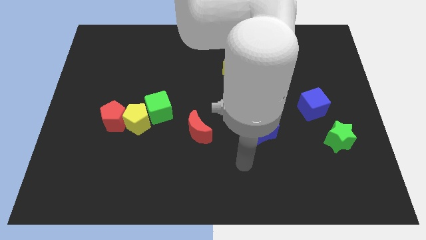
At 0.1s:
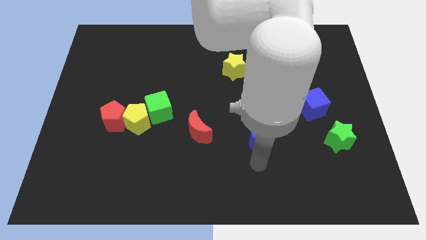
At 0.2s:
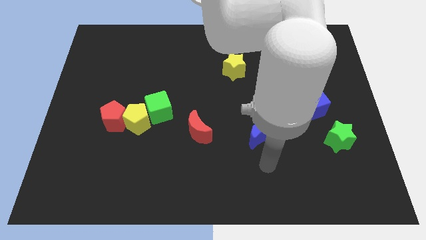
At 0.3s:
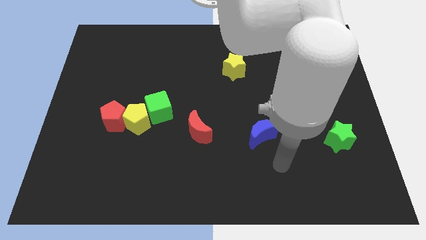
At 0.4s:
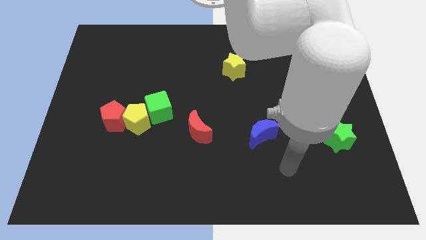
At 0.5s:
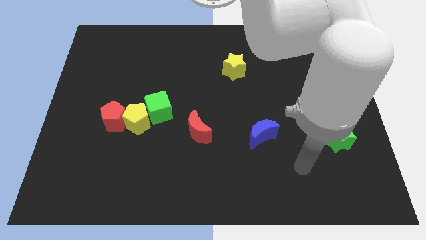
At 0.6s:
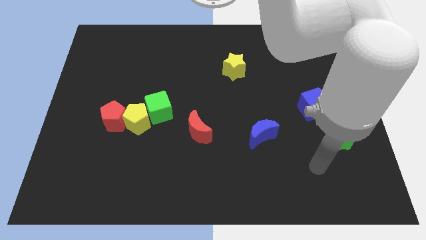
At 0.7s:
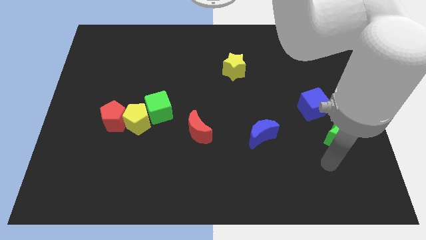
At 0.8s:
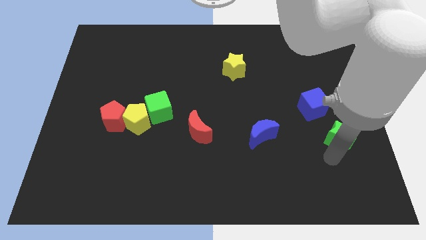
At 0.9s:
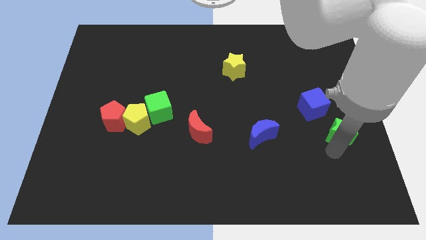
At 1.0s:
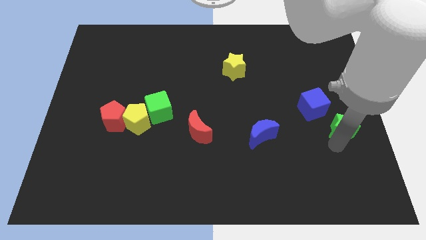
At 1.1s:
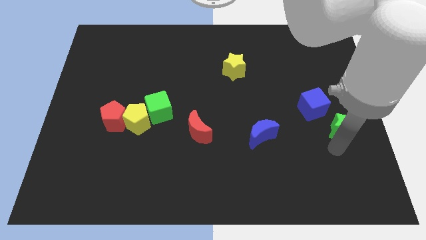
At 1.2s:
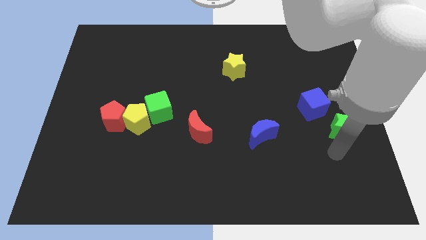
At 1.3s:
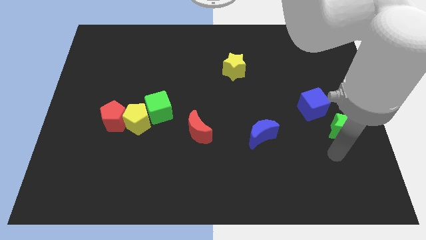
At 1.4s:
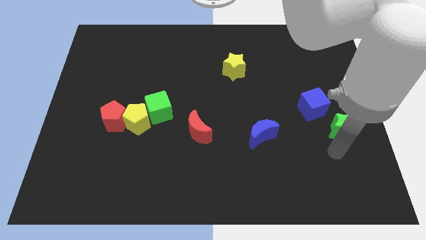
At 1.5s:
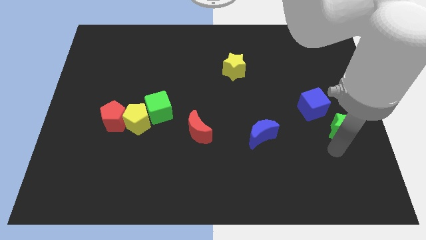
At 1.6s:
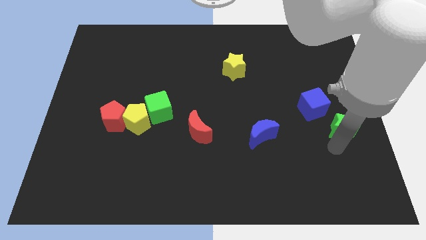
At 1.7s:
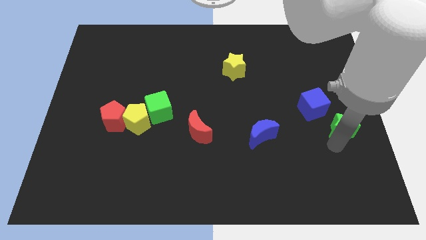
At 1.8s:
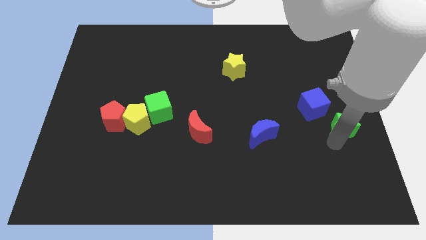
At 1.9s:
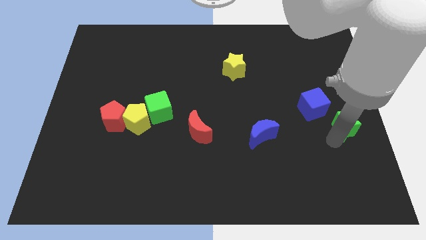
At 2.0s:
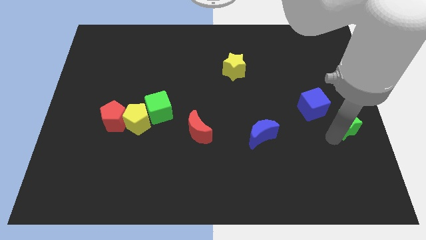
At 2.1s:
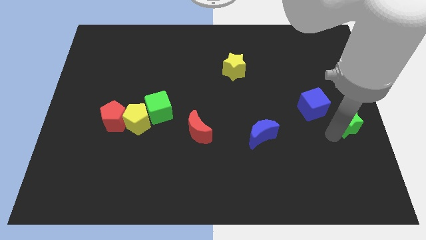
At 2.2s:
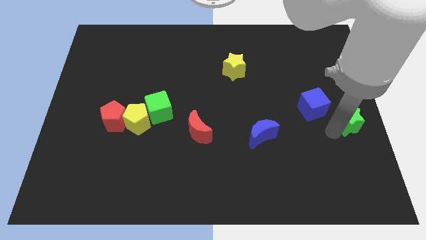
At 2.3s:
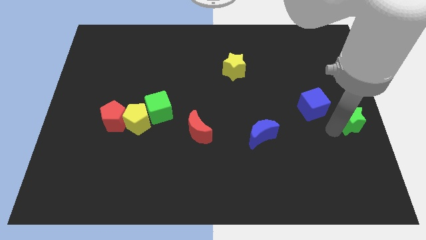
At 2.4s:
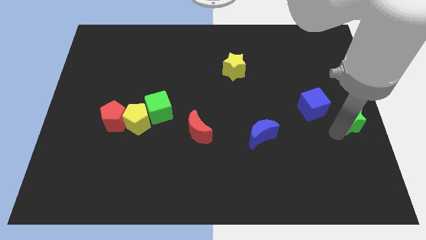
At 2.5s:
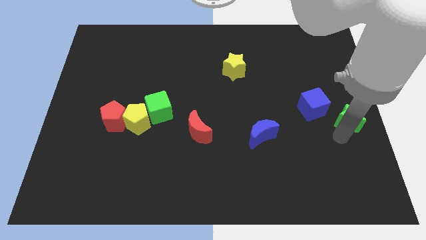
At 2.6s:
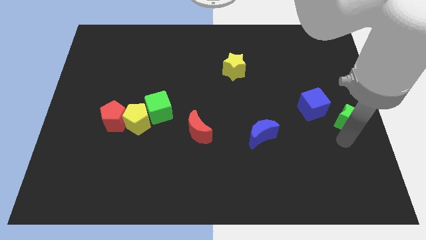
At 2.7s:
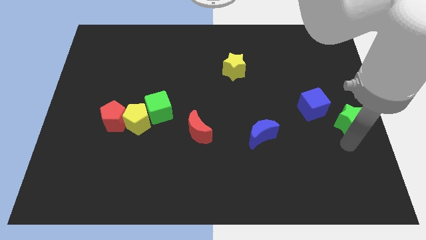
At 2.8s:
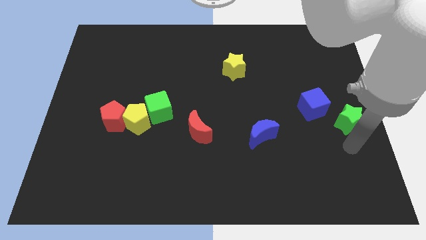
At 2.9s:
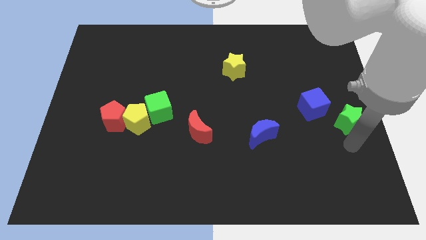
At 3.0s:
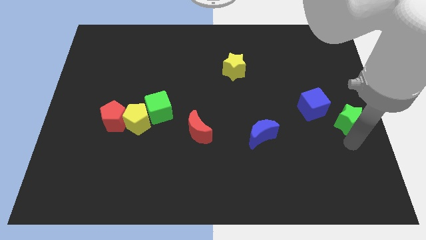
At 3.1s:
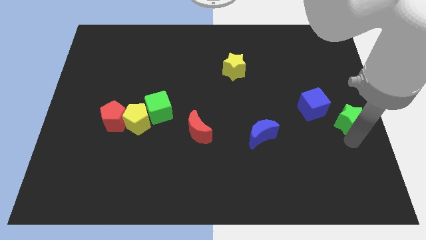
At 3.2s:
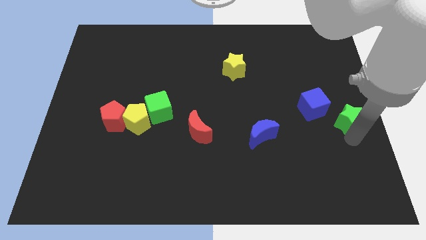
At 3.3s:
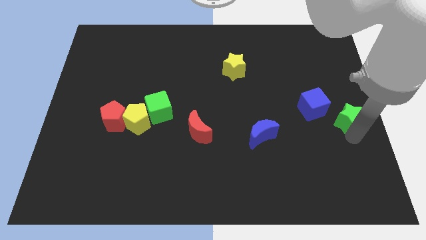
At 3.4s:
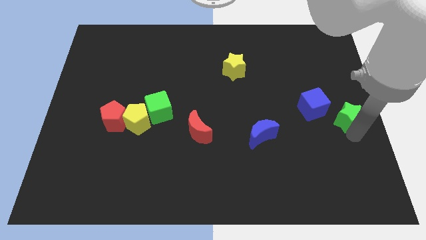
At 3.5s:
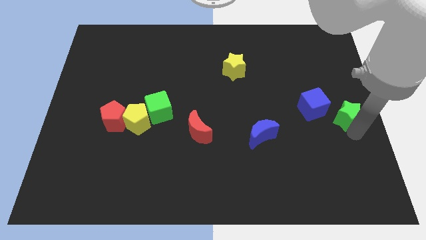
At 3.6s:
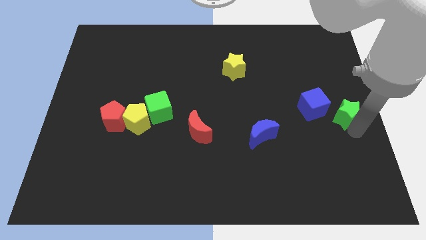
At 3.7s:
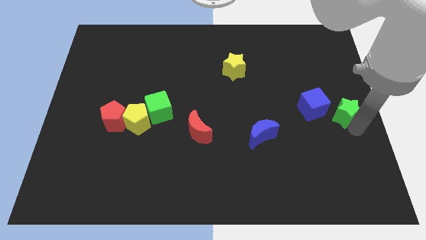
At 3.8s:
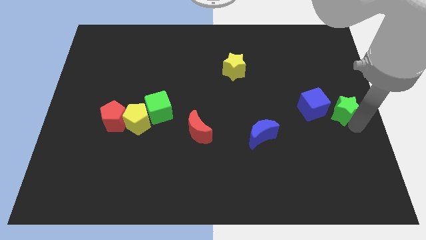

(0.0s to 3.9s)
move the green star a little upwards

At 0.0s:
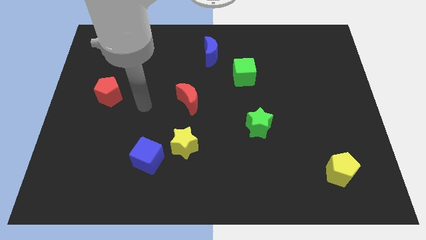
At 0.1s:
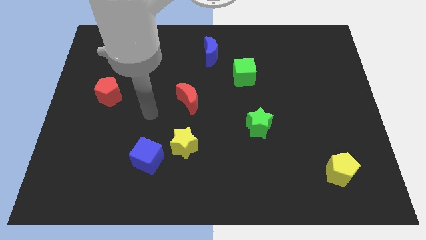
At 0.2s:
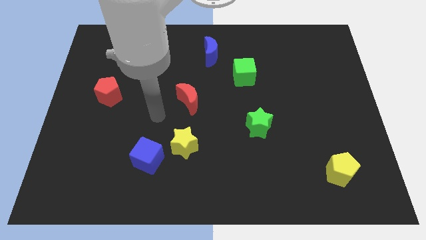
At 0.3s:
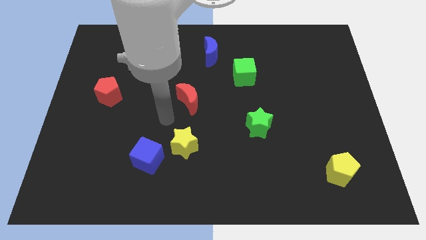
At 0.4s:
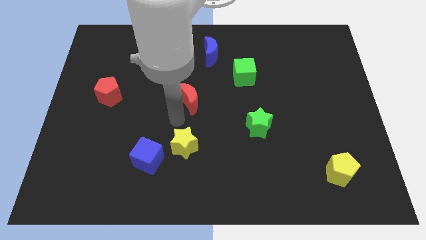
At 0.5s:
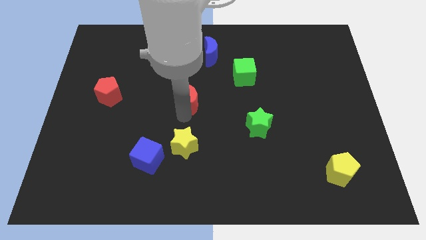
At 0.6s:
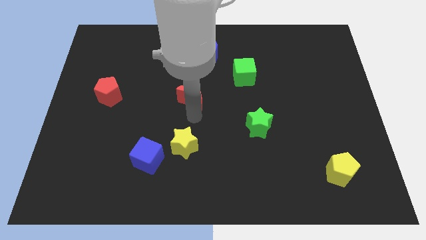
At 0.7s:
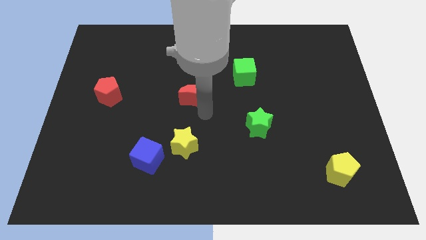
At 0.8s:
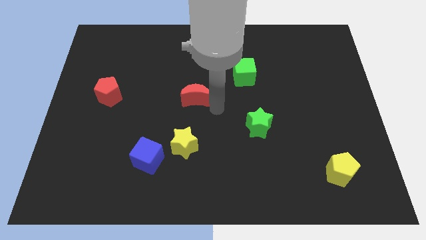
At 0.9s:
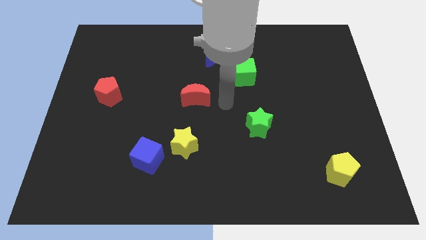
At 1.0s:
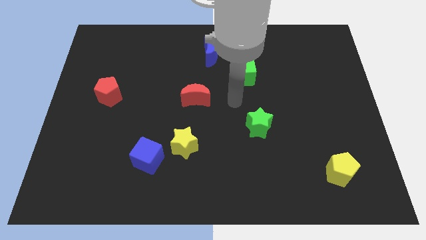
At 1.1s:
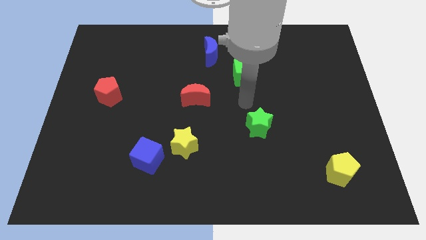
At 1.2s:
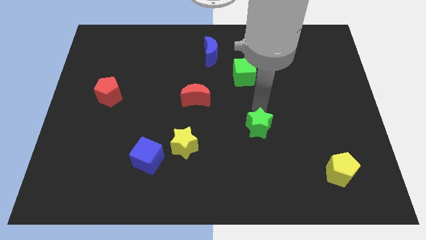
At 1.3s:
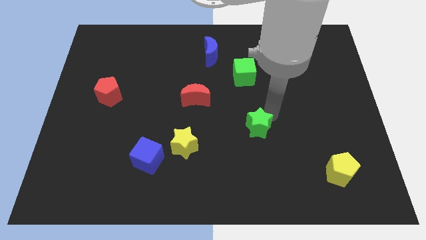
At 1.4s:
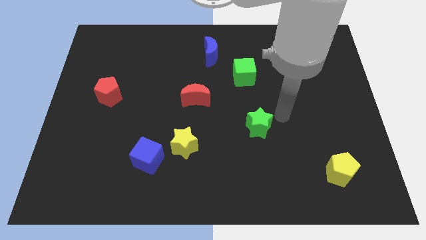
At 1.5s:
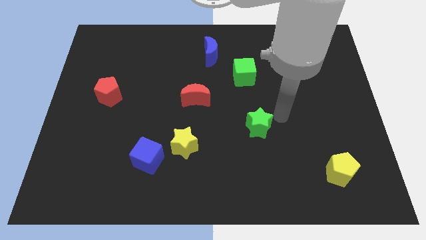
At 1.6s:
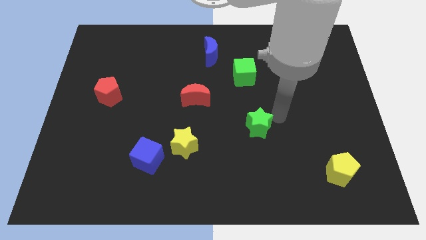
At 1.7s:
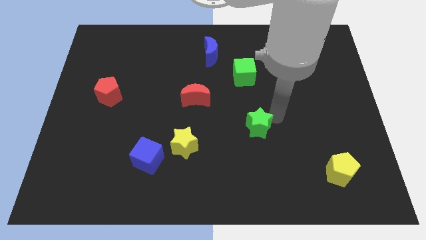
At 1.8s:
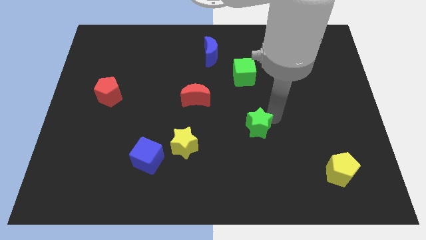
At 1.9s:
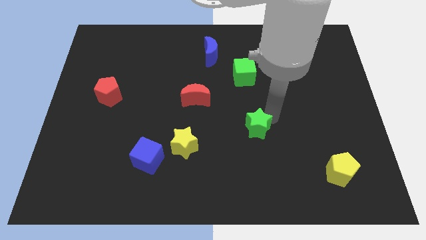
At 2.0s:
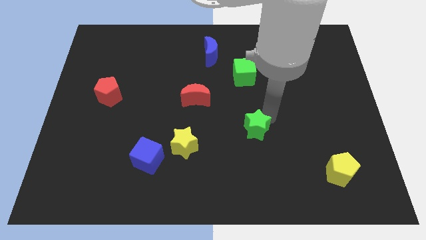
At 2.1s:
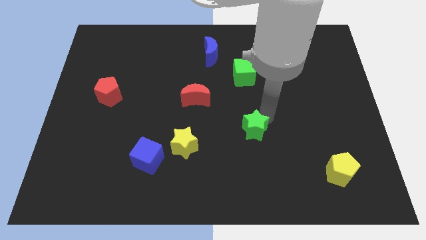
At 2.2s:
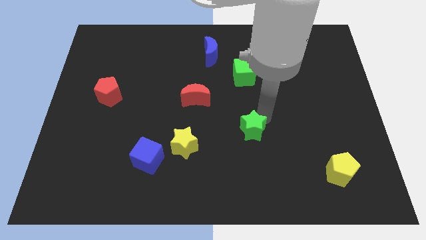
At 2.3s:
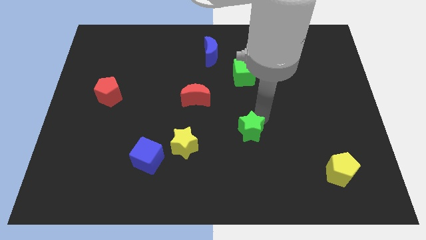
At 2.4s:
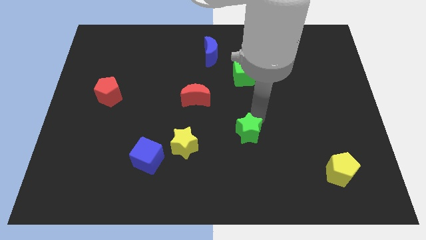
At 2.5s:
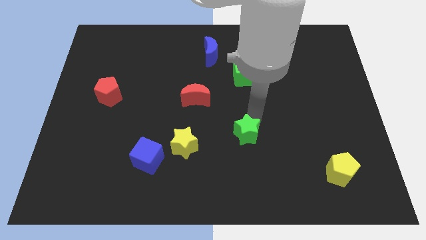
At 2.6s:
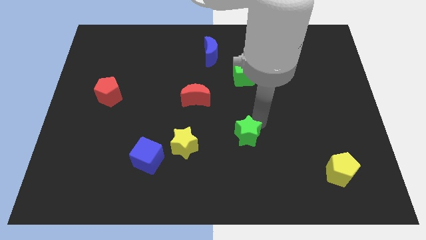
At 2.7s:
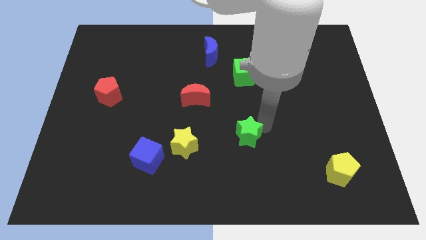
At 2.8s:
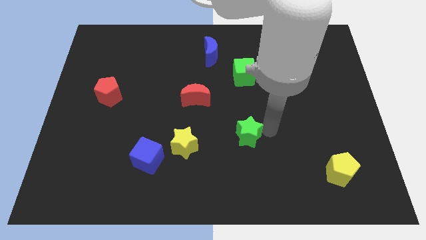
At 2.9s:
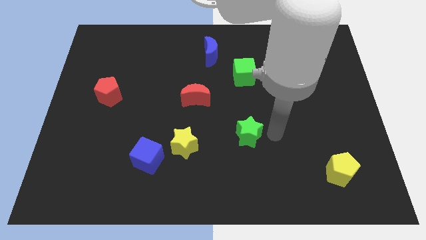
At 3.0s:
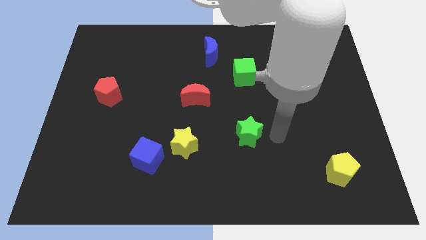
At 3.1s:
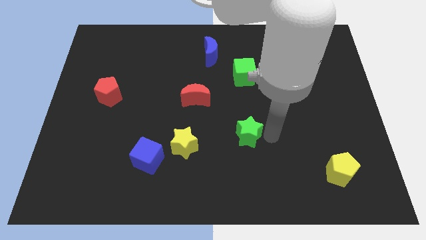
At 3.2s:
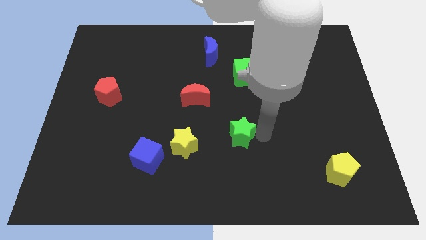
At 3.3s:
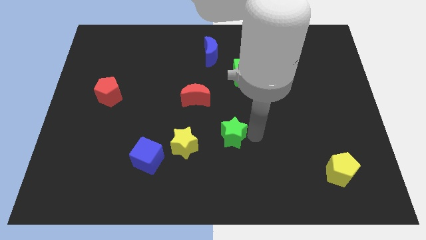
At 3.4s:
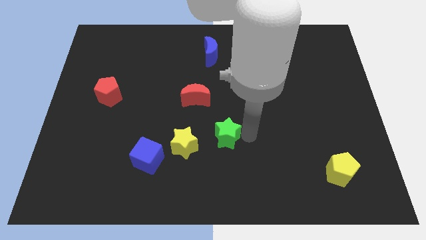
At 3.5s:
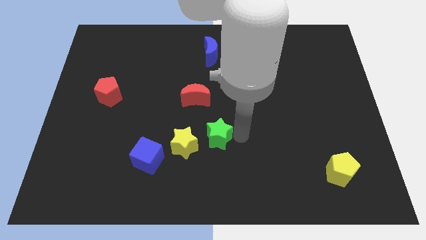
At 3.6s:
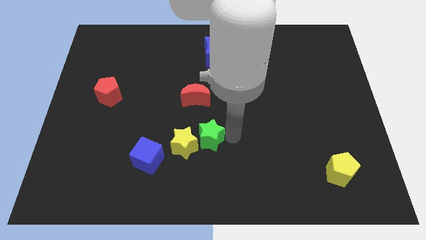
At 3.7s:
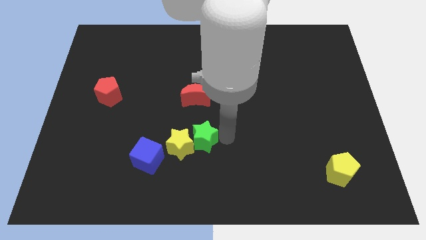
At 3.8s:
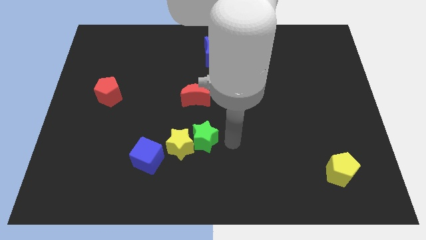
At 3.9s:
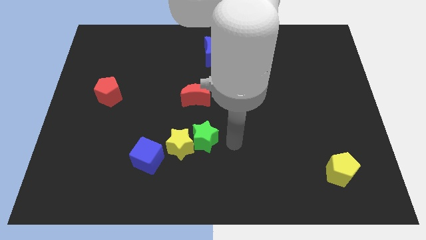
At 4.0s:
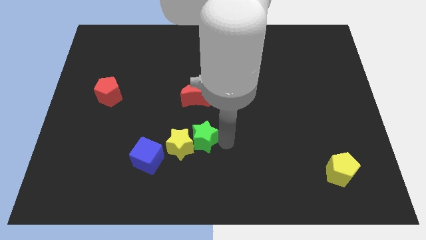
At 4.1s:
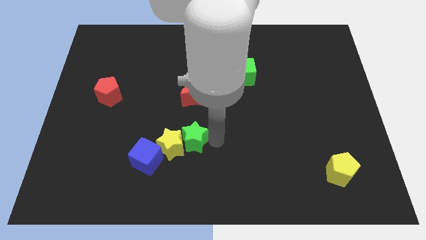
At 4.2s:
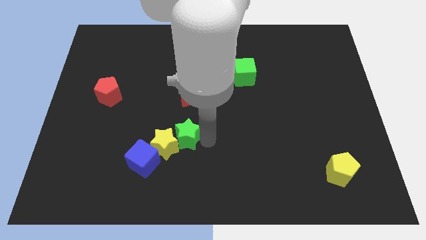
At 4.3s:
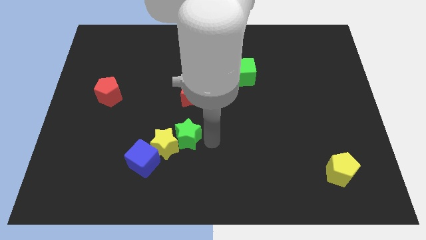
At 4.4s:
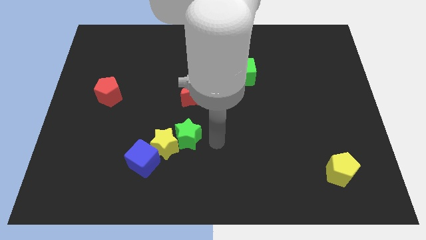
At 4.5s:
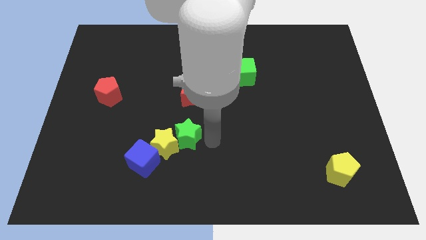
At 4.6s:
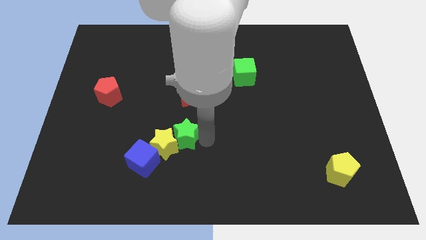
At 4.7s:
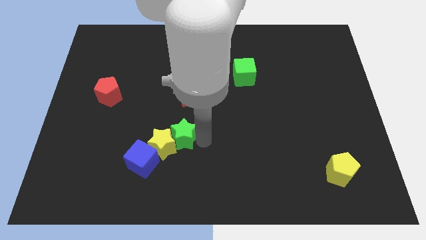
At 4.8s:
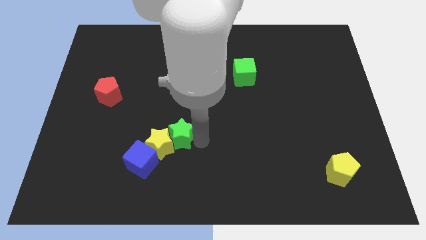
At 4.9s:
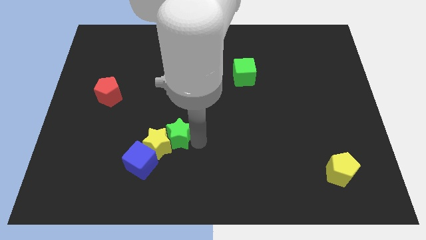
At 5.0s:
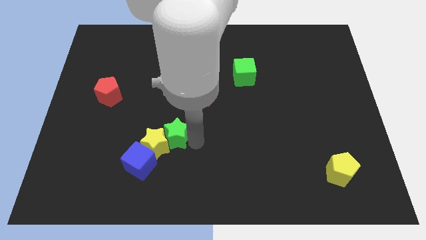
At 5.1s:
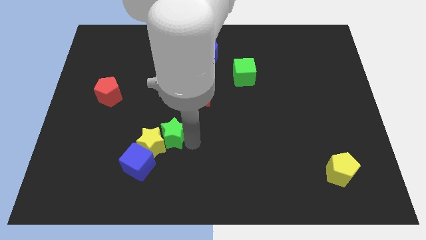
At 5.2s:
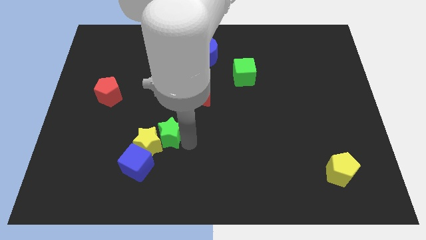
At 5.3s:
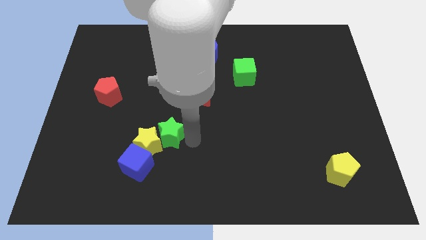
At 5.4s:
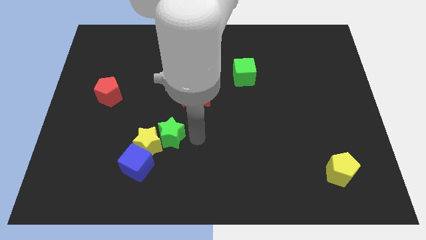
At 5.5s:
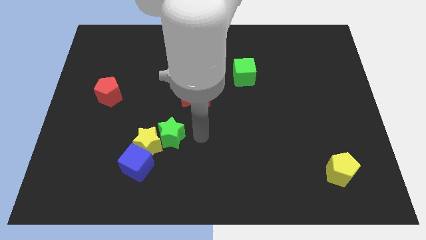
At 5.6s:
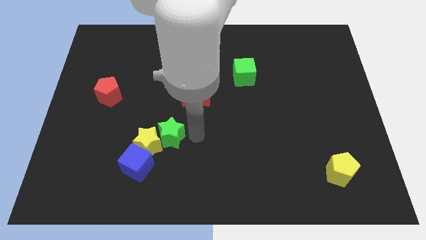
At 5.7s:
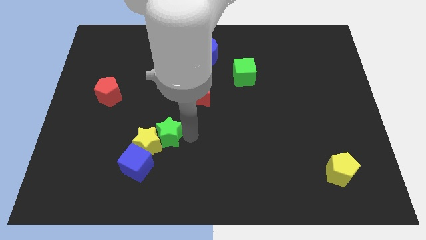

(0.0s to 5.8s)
move the green star left
